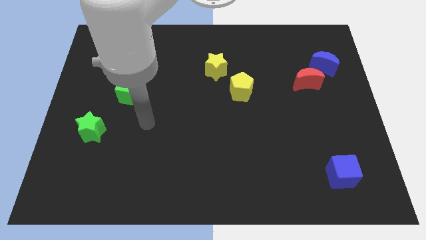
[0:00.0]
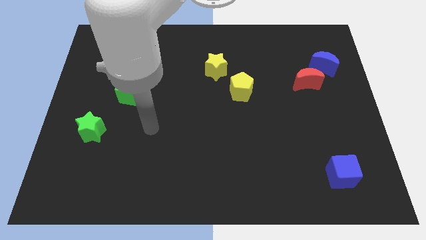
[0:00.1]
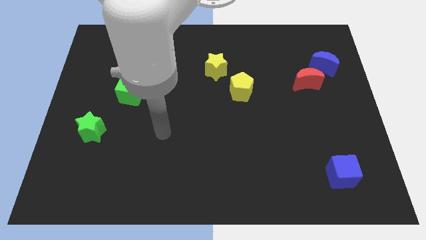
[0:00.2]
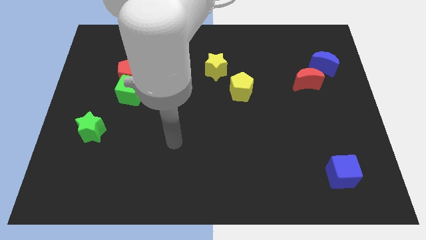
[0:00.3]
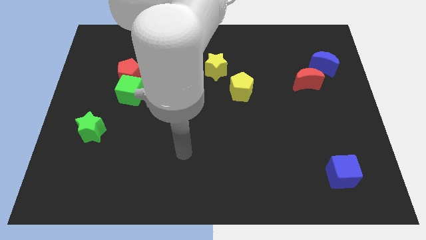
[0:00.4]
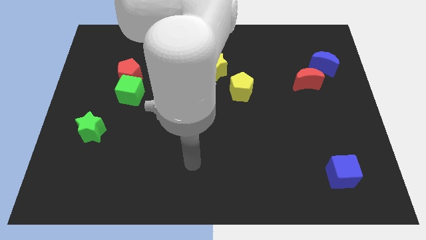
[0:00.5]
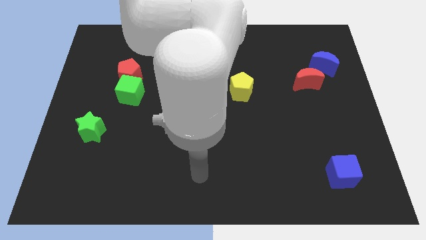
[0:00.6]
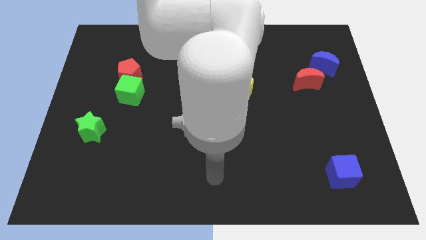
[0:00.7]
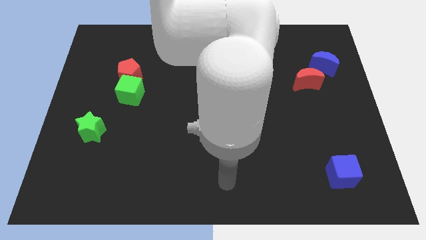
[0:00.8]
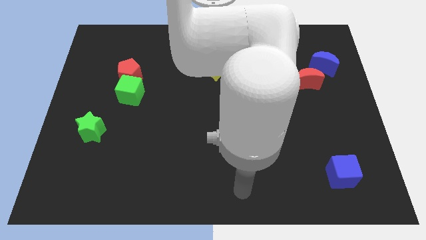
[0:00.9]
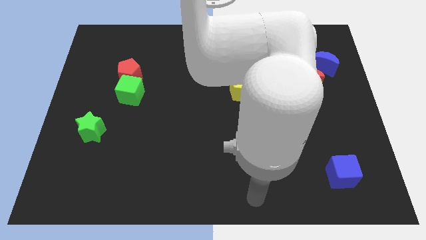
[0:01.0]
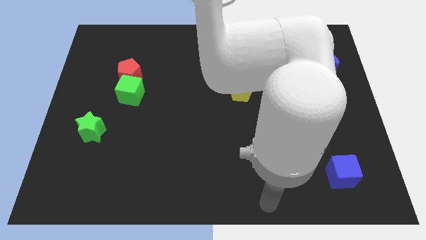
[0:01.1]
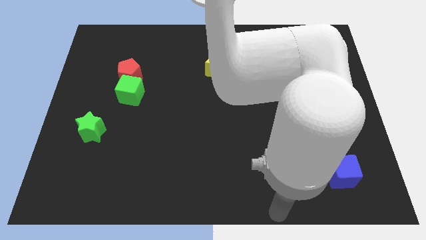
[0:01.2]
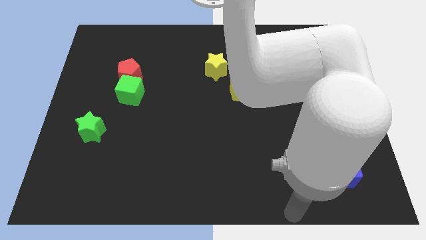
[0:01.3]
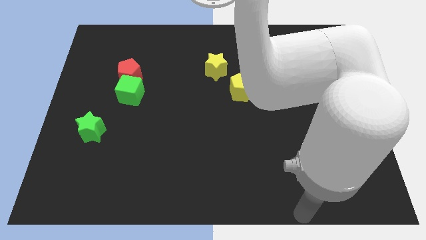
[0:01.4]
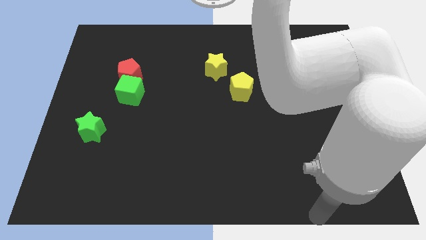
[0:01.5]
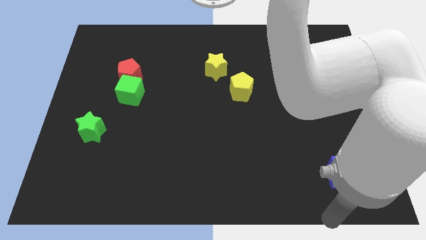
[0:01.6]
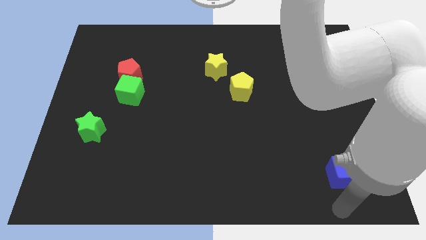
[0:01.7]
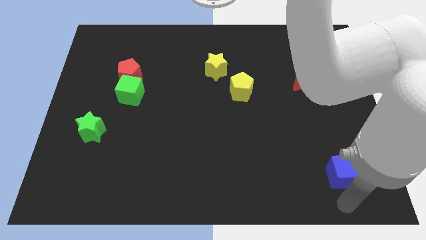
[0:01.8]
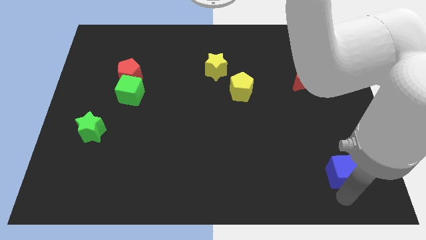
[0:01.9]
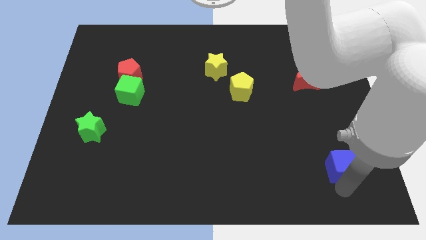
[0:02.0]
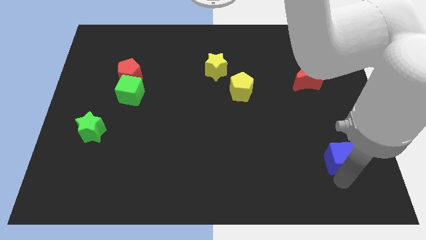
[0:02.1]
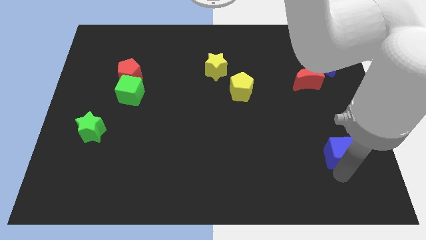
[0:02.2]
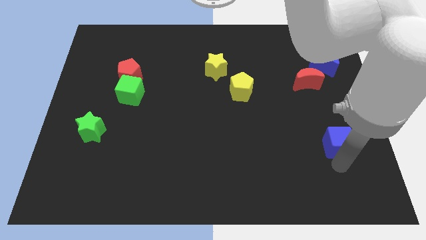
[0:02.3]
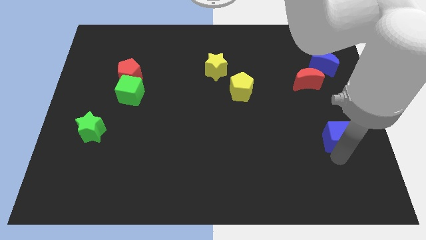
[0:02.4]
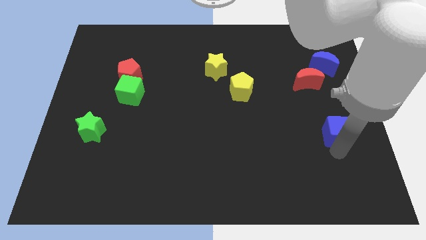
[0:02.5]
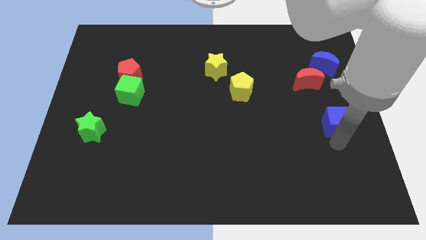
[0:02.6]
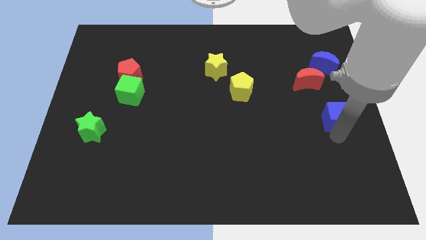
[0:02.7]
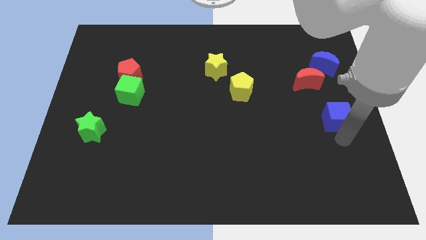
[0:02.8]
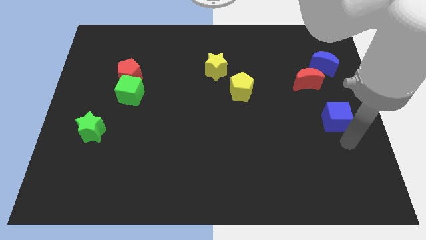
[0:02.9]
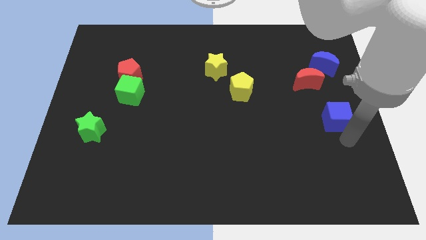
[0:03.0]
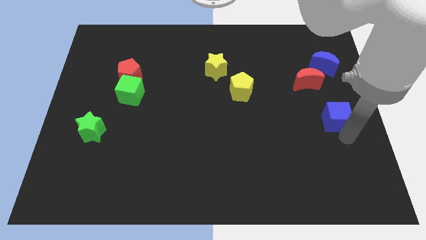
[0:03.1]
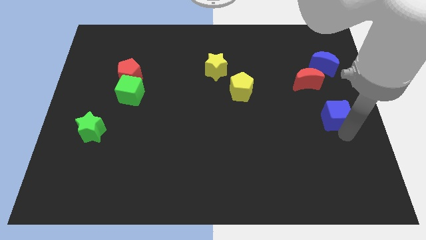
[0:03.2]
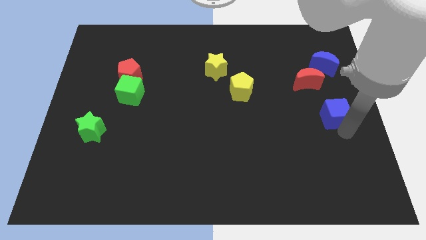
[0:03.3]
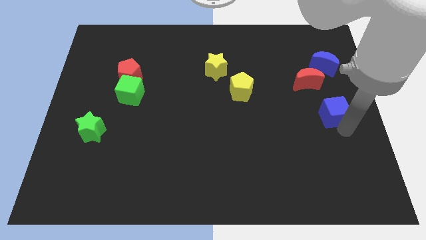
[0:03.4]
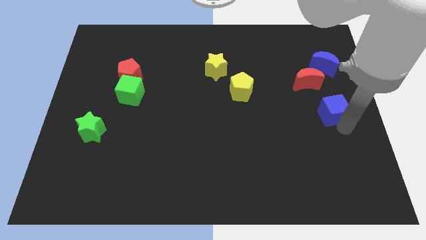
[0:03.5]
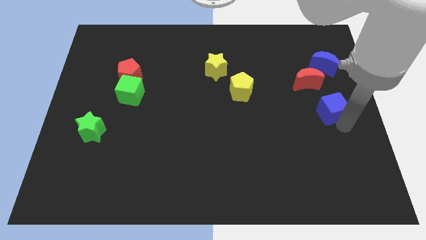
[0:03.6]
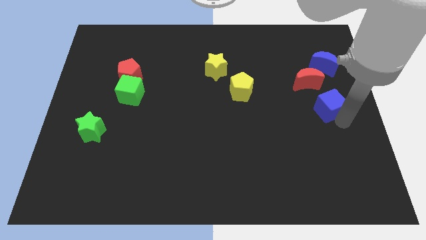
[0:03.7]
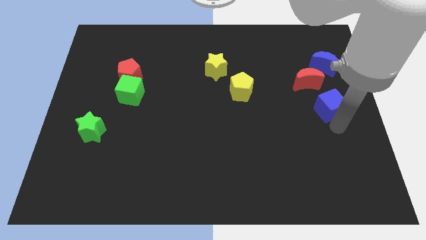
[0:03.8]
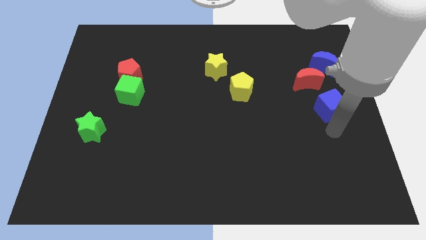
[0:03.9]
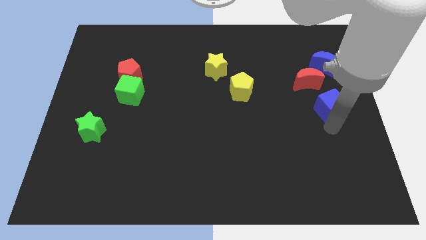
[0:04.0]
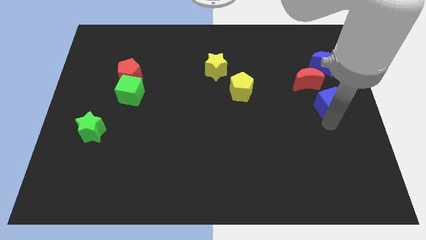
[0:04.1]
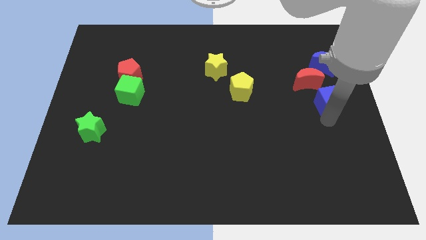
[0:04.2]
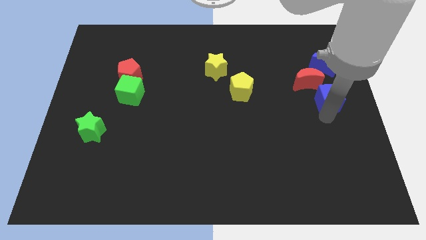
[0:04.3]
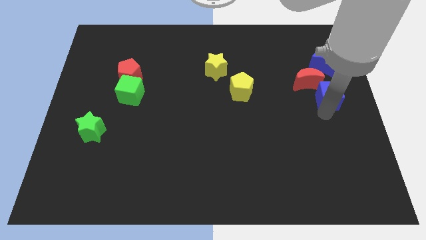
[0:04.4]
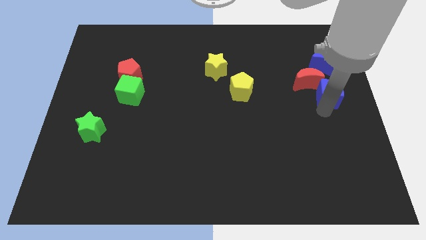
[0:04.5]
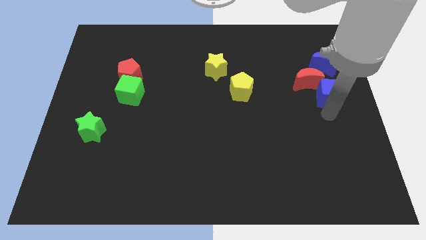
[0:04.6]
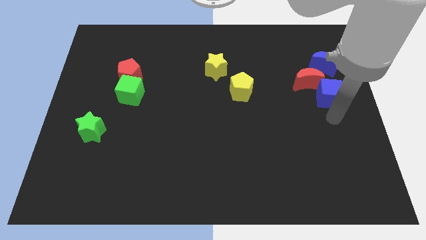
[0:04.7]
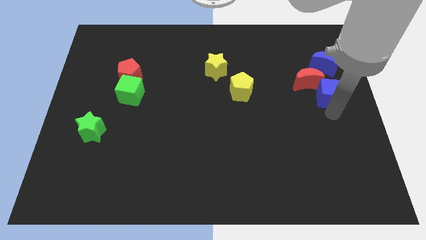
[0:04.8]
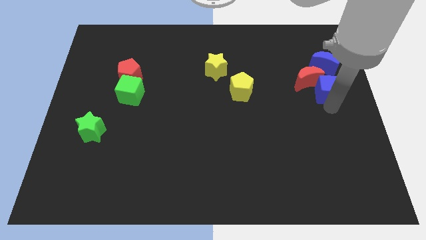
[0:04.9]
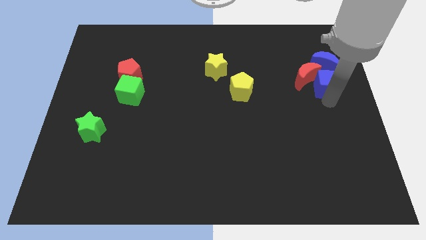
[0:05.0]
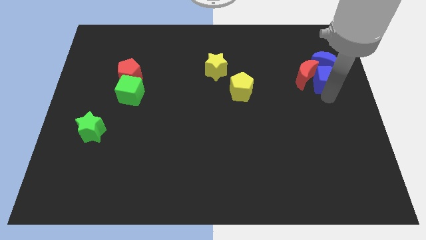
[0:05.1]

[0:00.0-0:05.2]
move the blue cube close to the blue moon

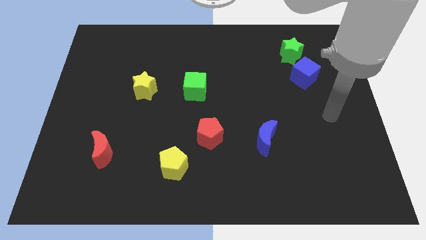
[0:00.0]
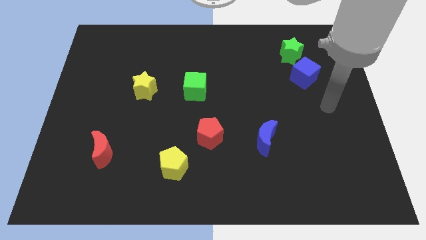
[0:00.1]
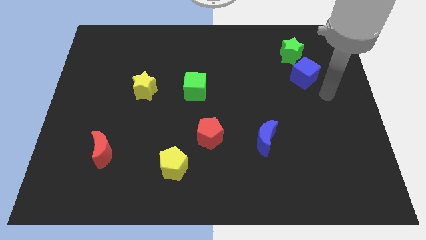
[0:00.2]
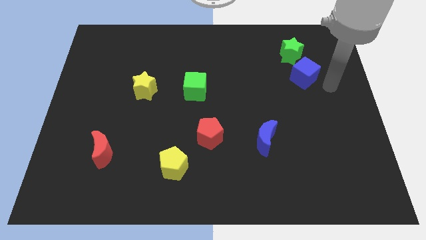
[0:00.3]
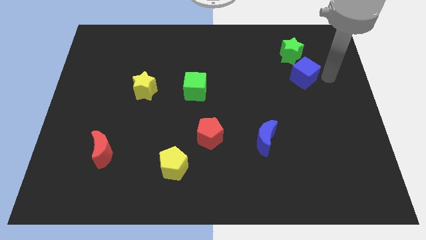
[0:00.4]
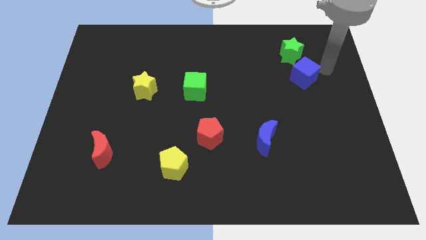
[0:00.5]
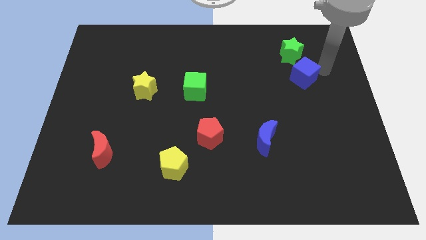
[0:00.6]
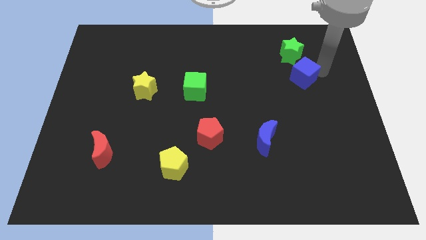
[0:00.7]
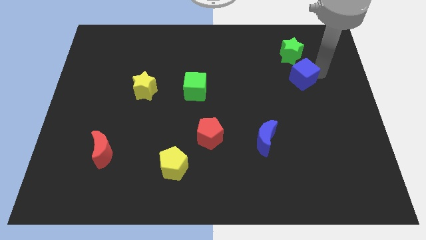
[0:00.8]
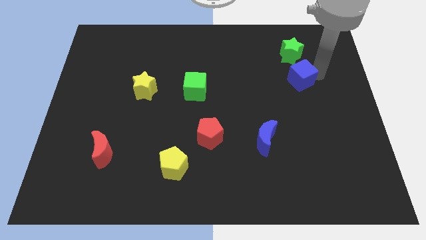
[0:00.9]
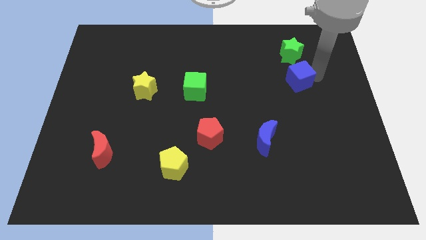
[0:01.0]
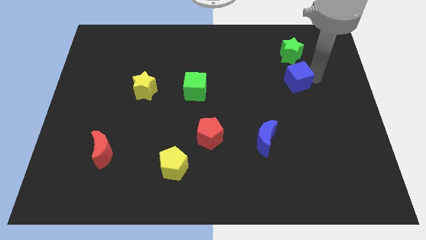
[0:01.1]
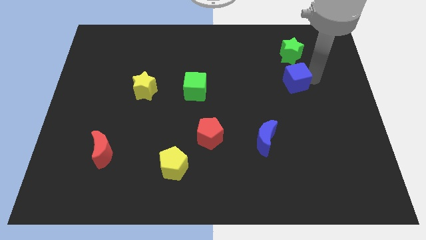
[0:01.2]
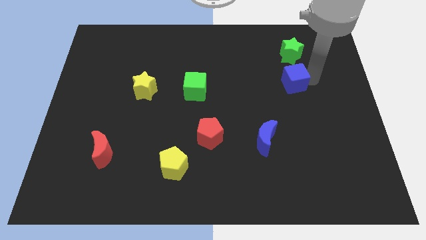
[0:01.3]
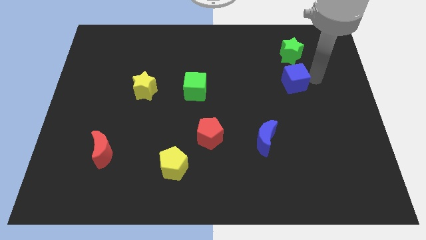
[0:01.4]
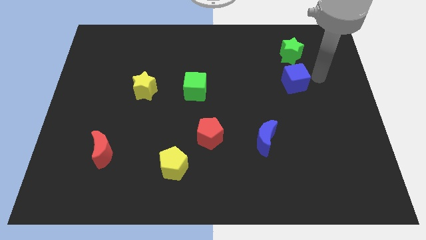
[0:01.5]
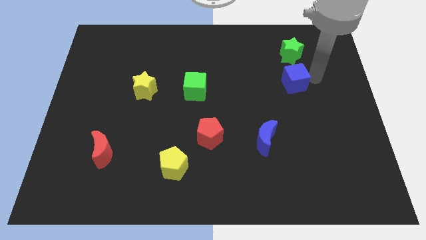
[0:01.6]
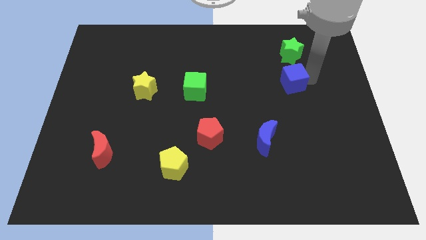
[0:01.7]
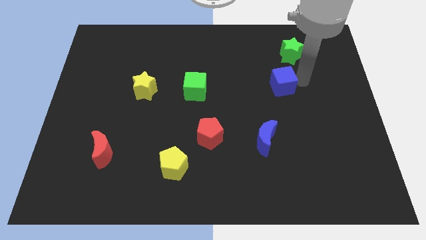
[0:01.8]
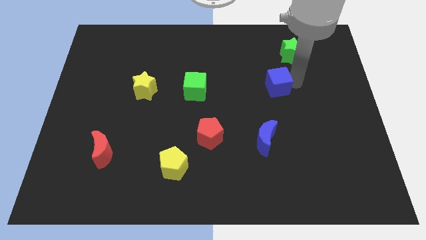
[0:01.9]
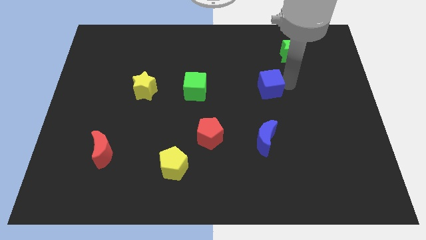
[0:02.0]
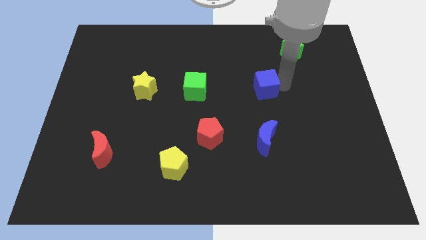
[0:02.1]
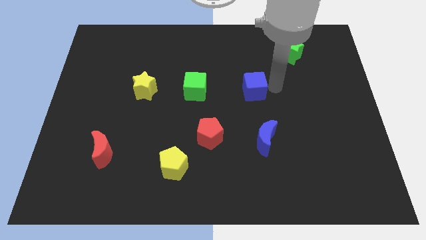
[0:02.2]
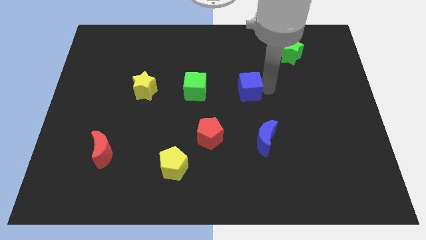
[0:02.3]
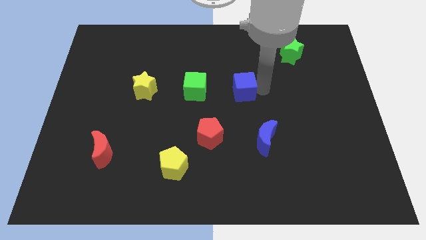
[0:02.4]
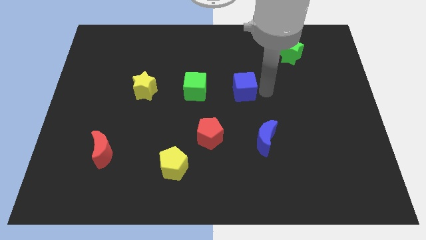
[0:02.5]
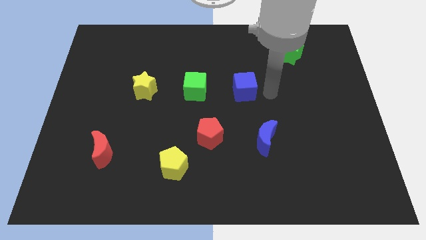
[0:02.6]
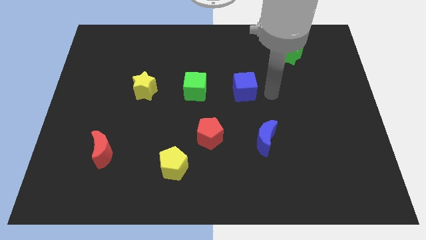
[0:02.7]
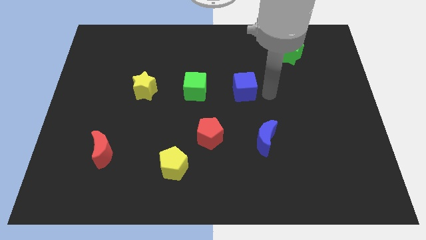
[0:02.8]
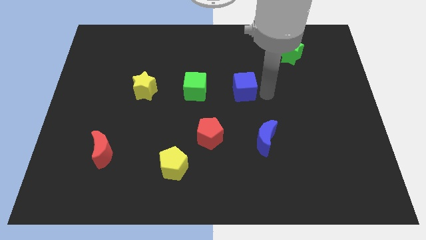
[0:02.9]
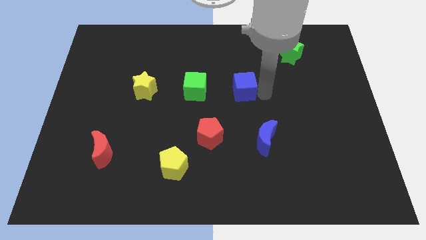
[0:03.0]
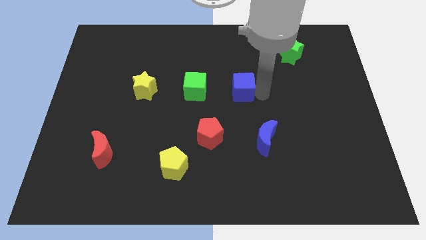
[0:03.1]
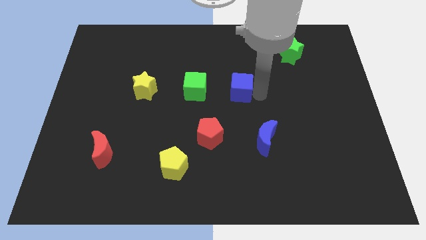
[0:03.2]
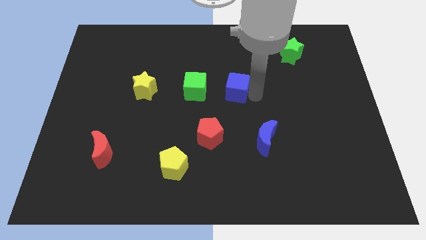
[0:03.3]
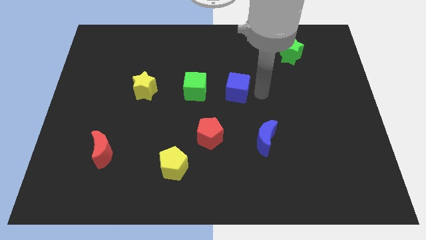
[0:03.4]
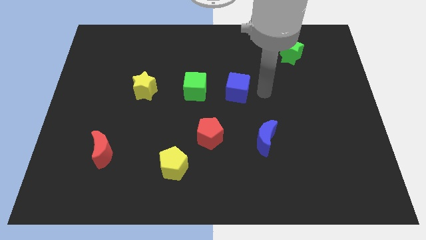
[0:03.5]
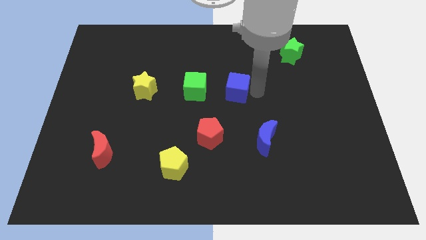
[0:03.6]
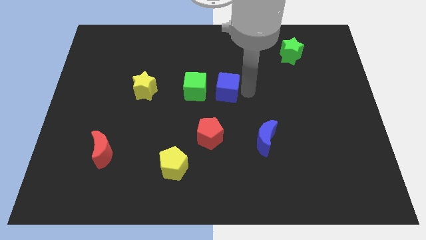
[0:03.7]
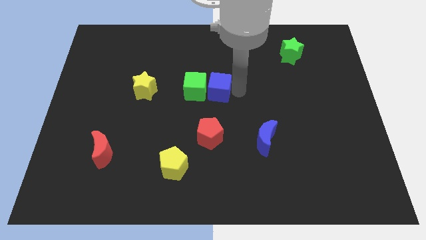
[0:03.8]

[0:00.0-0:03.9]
slide the blue cube towards the green cube
